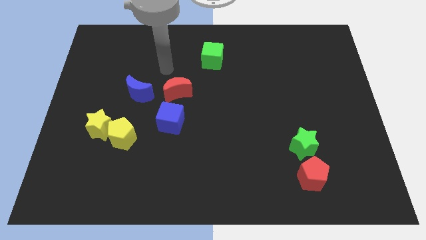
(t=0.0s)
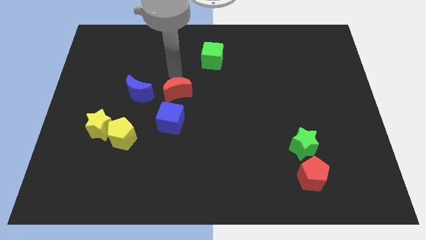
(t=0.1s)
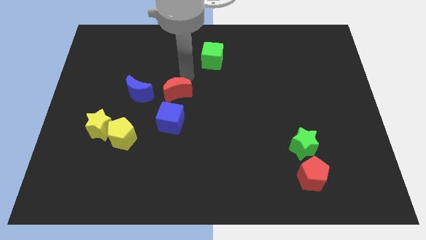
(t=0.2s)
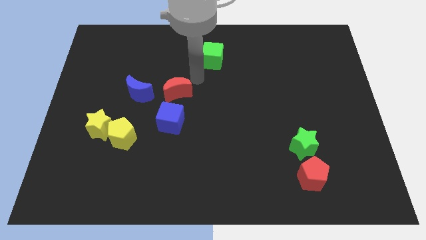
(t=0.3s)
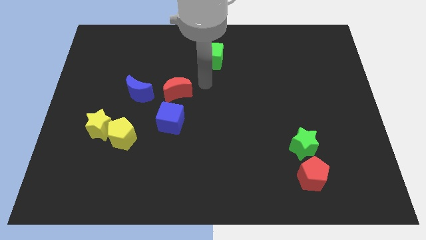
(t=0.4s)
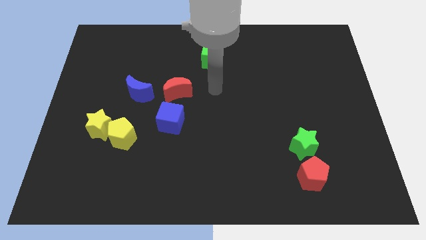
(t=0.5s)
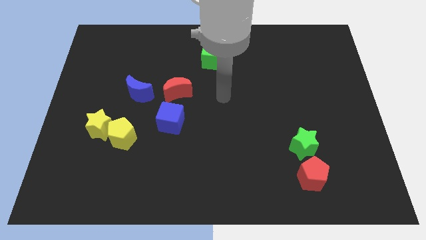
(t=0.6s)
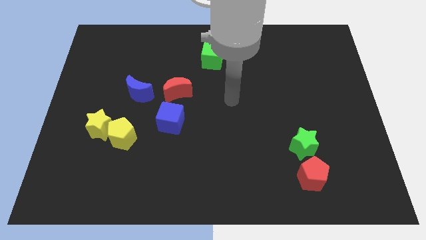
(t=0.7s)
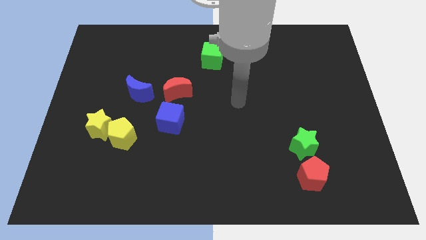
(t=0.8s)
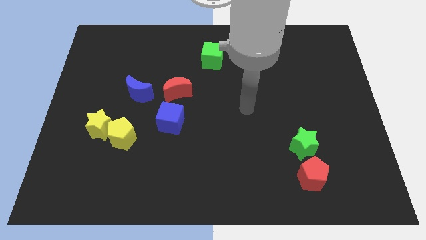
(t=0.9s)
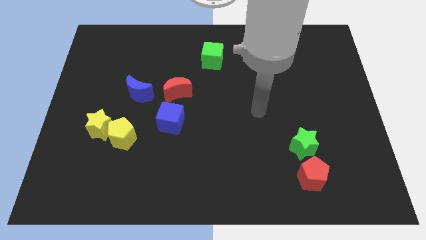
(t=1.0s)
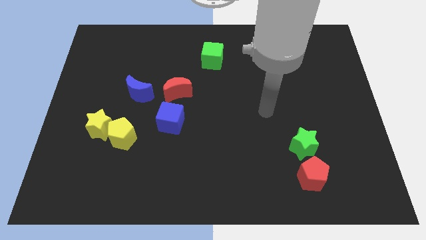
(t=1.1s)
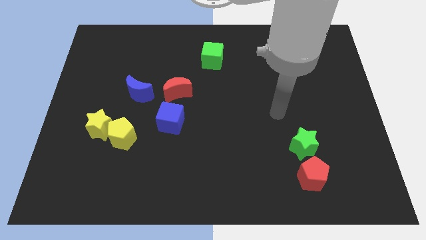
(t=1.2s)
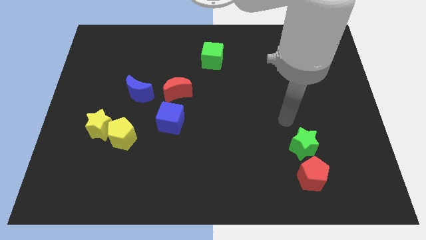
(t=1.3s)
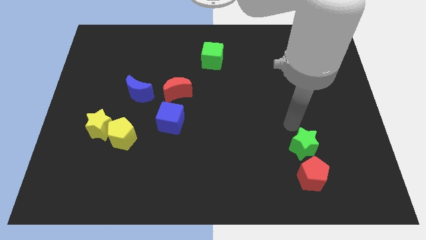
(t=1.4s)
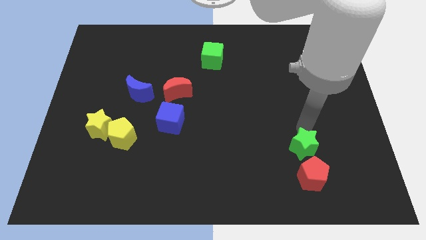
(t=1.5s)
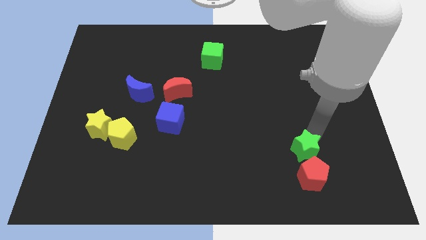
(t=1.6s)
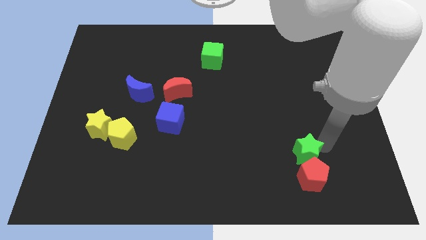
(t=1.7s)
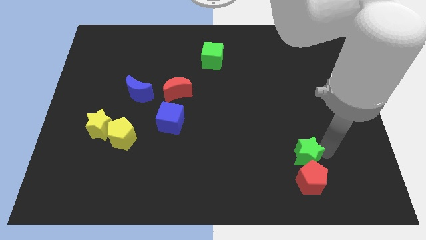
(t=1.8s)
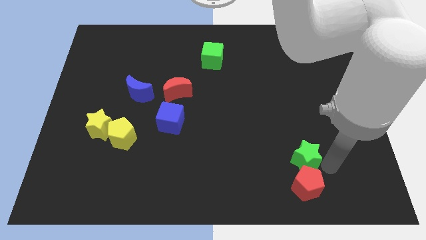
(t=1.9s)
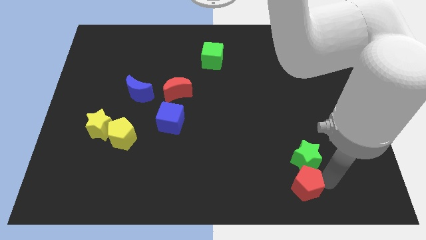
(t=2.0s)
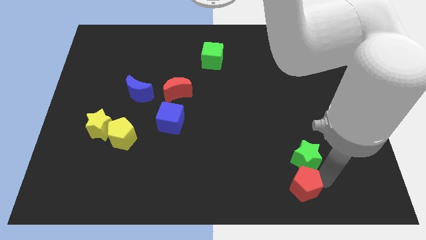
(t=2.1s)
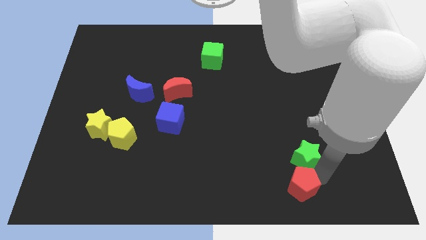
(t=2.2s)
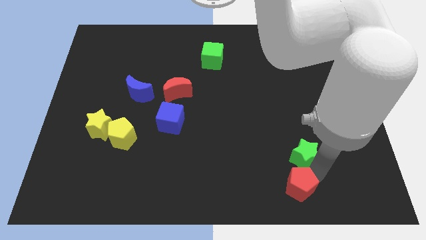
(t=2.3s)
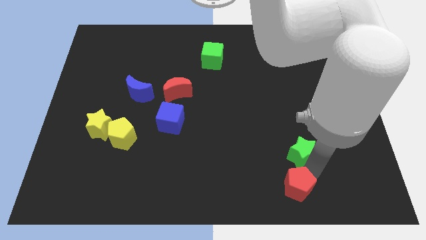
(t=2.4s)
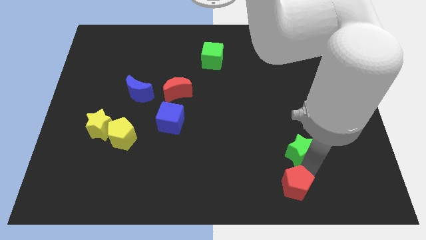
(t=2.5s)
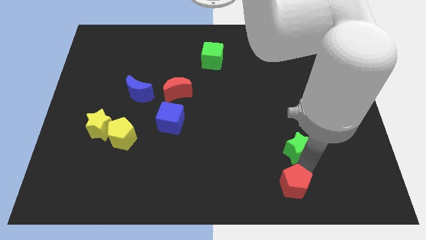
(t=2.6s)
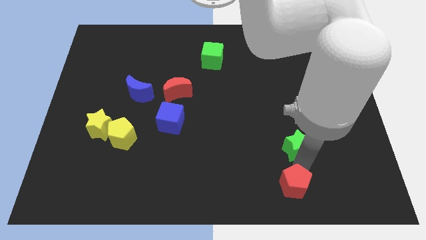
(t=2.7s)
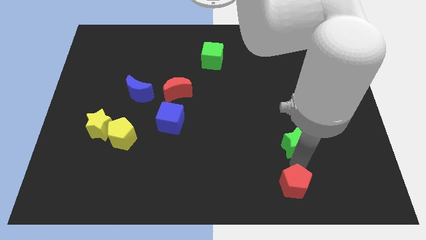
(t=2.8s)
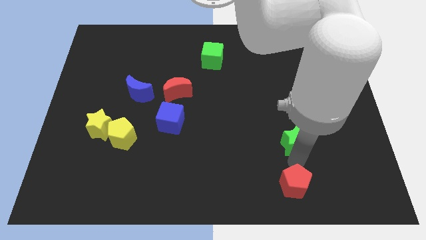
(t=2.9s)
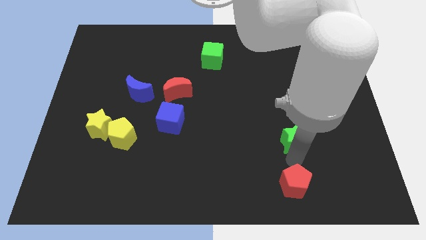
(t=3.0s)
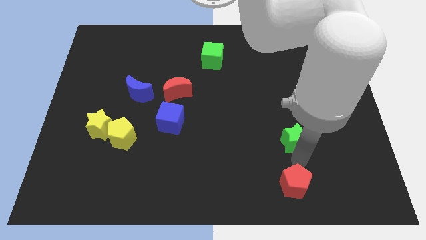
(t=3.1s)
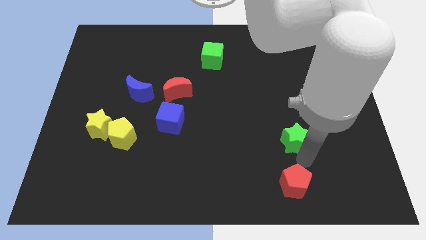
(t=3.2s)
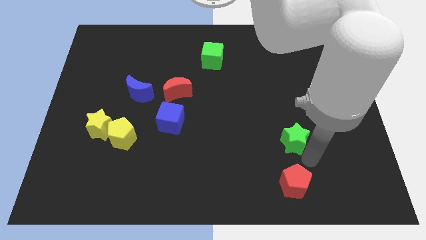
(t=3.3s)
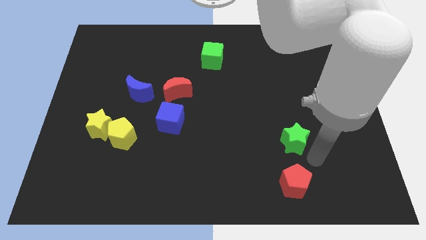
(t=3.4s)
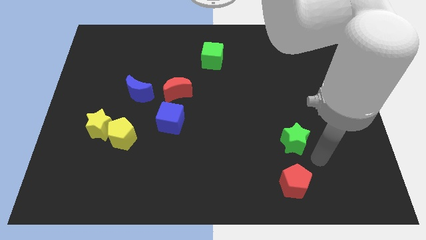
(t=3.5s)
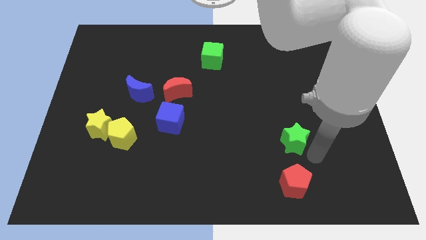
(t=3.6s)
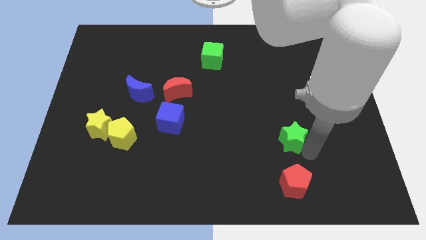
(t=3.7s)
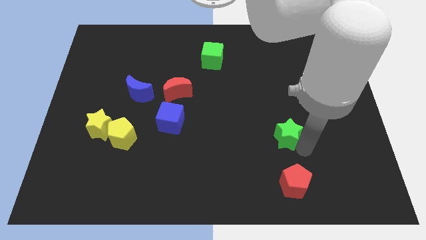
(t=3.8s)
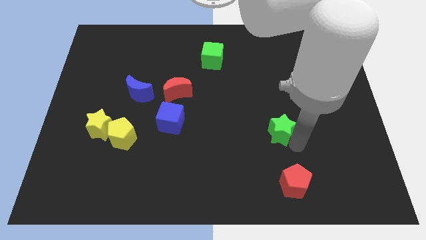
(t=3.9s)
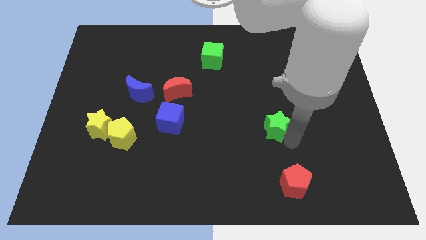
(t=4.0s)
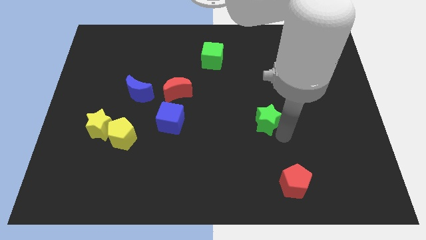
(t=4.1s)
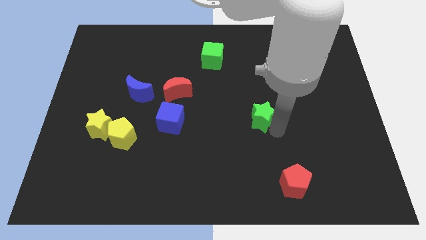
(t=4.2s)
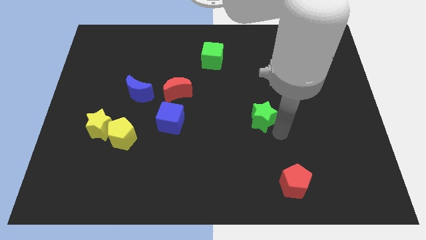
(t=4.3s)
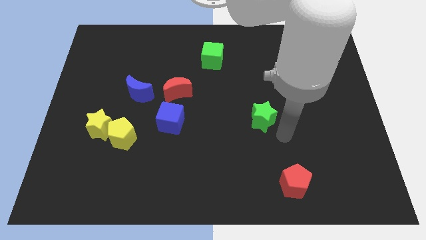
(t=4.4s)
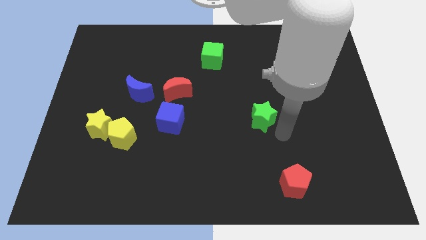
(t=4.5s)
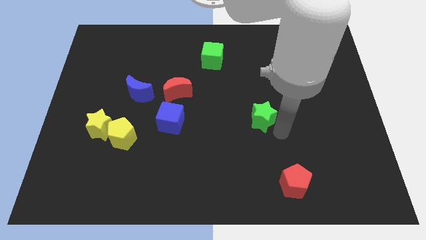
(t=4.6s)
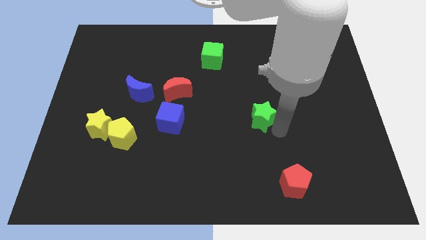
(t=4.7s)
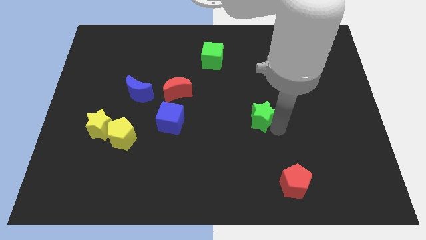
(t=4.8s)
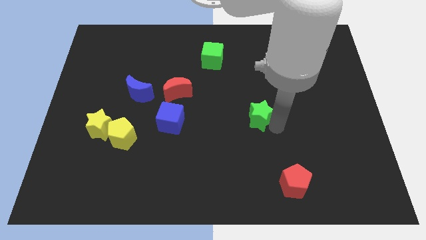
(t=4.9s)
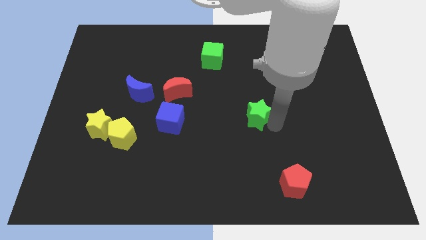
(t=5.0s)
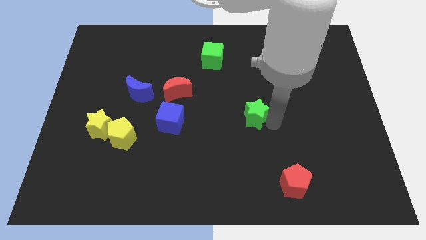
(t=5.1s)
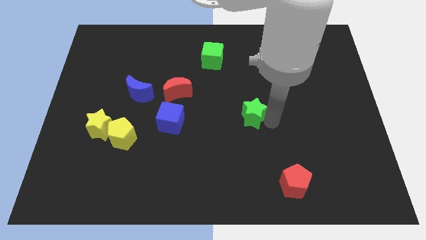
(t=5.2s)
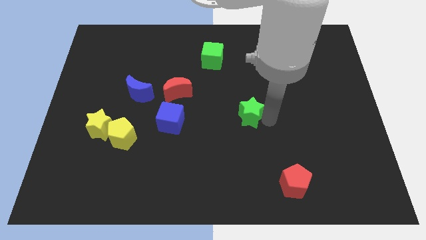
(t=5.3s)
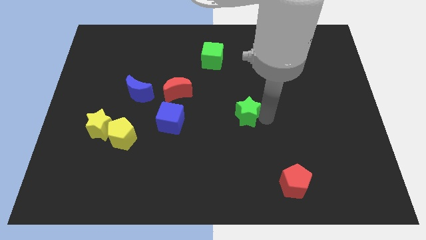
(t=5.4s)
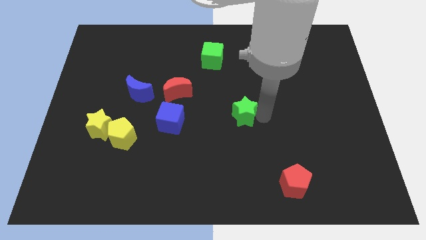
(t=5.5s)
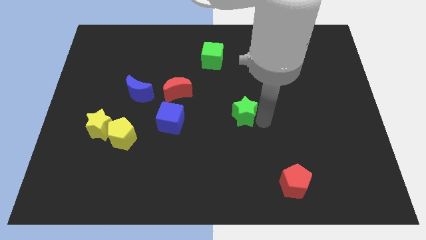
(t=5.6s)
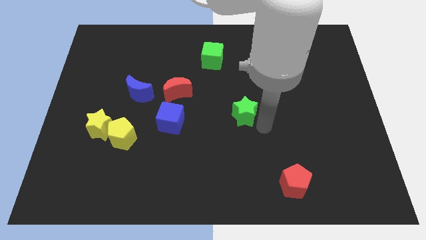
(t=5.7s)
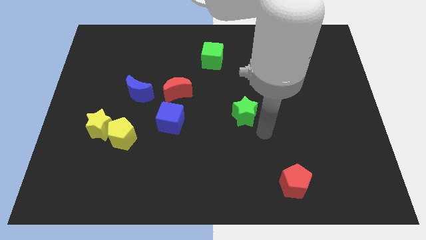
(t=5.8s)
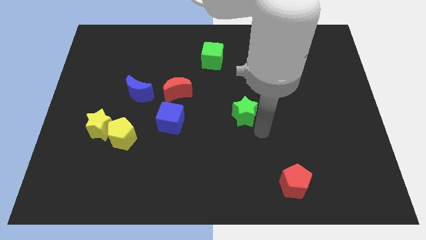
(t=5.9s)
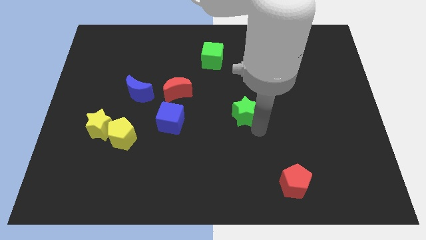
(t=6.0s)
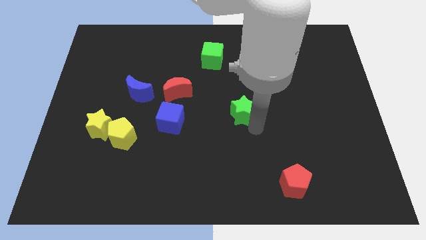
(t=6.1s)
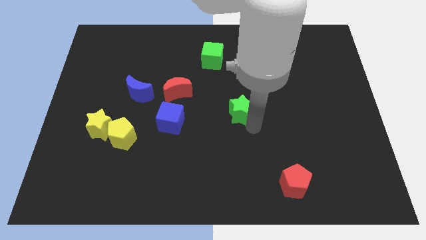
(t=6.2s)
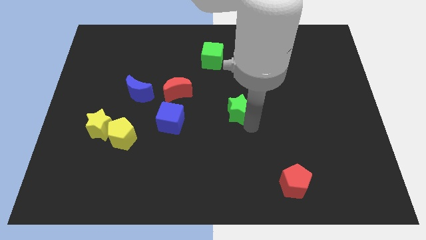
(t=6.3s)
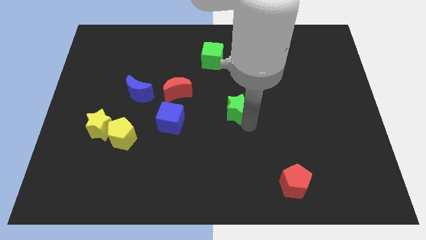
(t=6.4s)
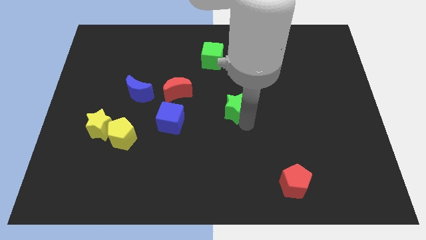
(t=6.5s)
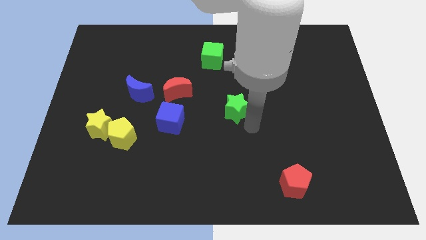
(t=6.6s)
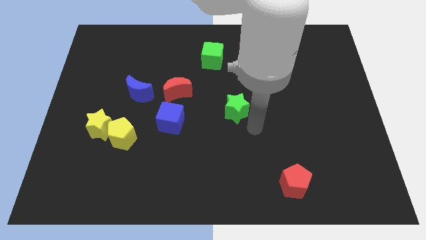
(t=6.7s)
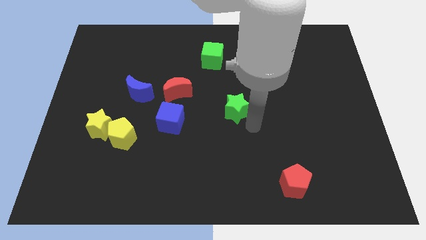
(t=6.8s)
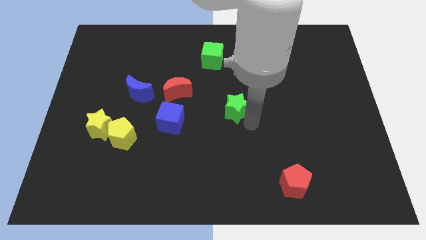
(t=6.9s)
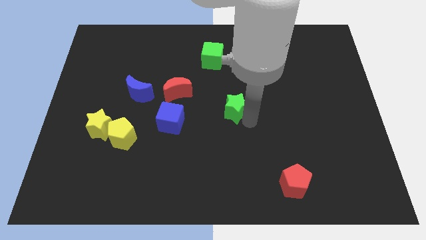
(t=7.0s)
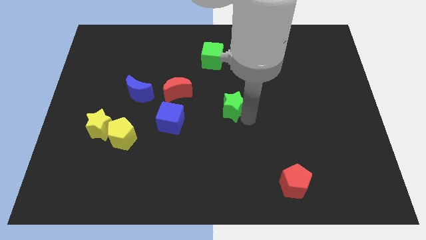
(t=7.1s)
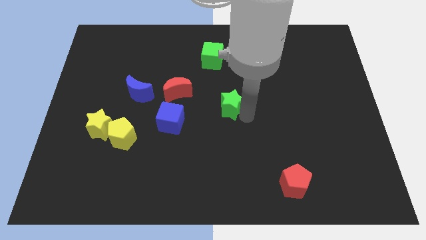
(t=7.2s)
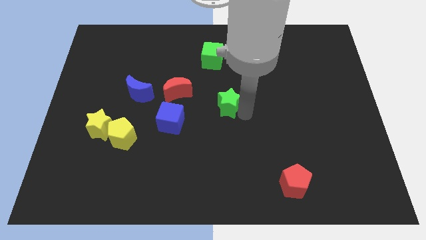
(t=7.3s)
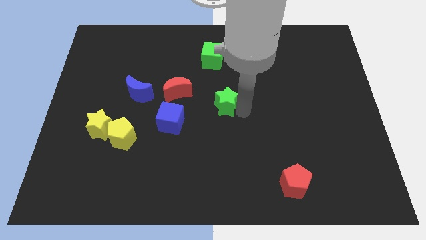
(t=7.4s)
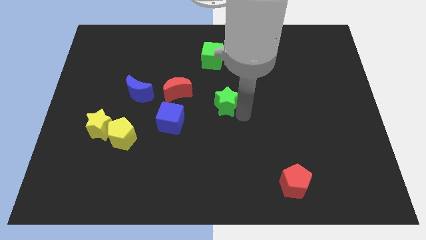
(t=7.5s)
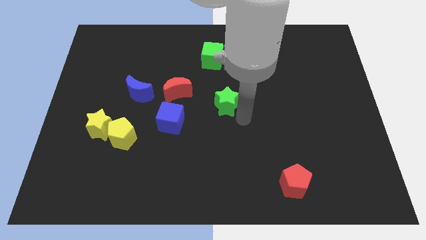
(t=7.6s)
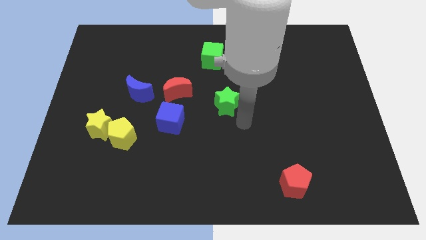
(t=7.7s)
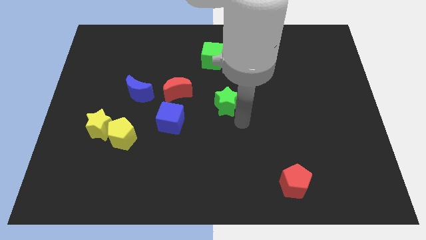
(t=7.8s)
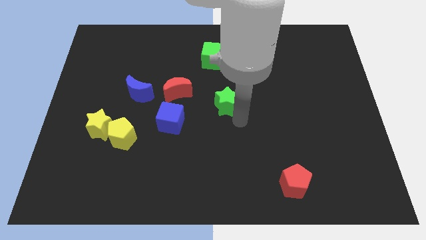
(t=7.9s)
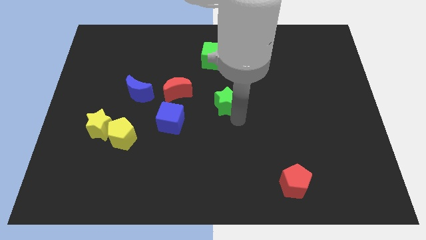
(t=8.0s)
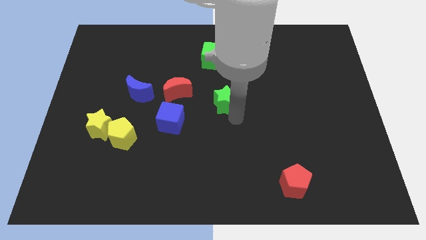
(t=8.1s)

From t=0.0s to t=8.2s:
move the green star diagonally up and to the left
